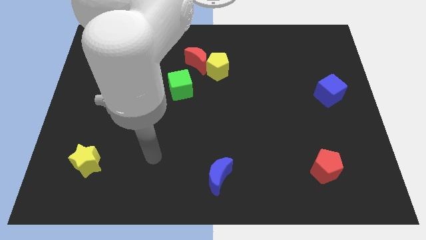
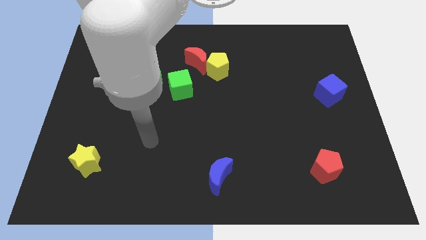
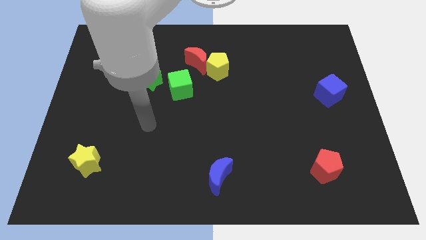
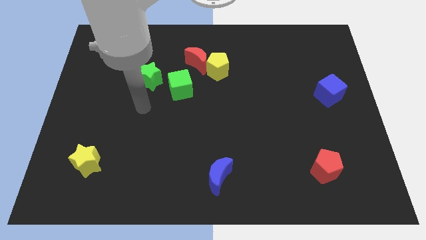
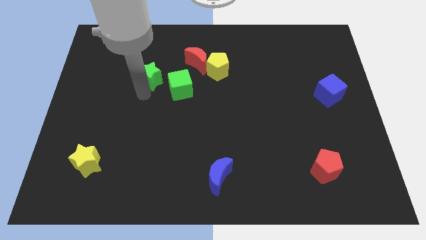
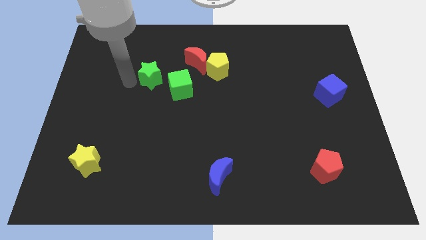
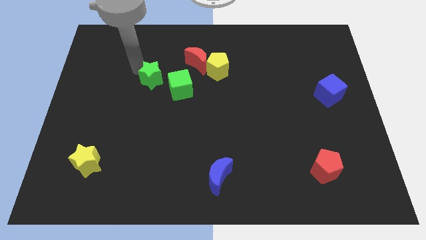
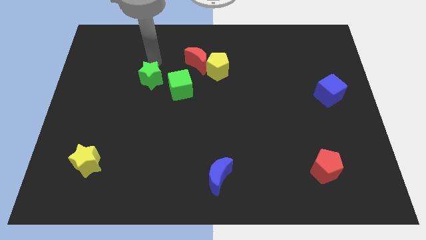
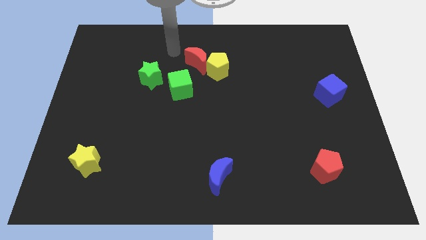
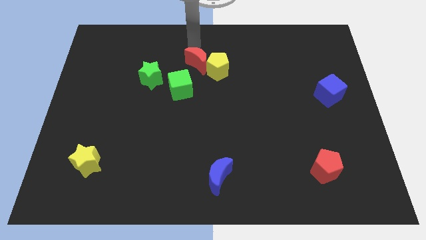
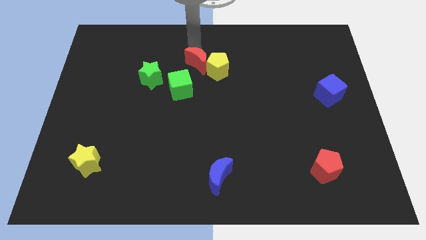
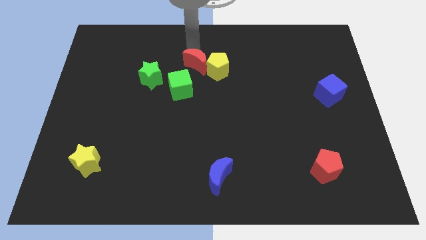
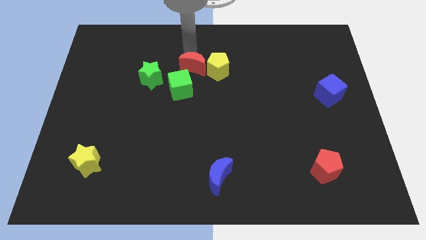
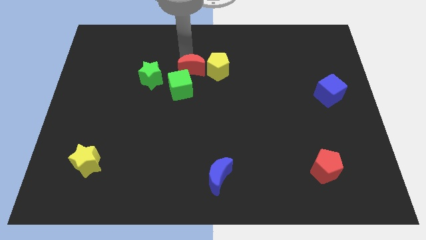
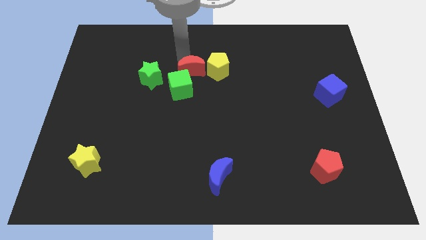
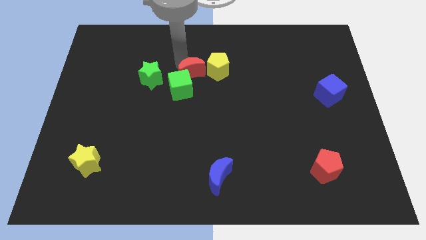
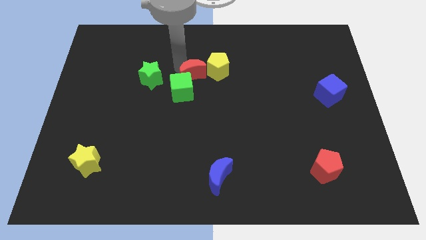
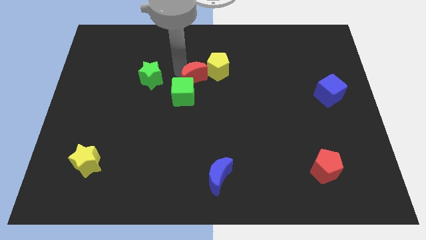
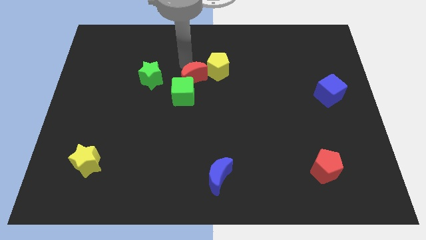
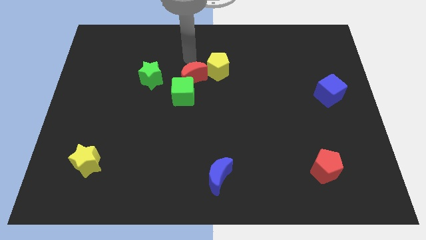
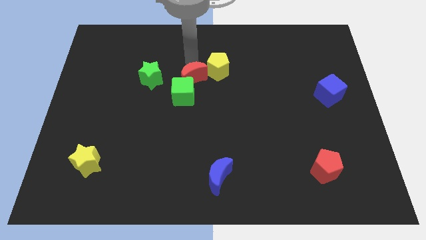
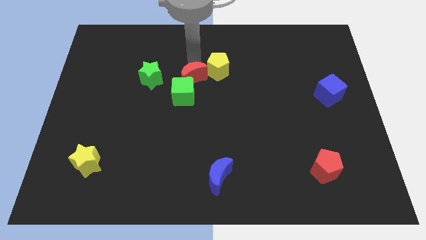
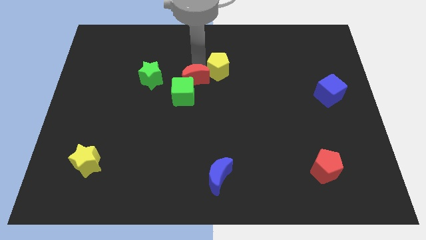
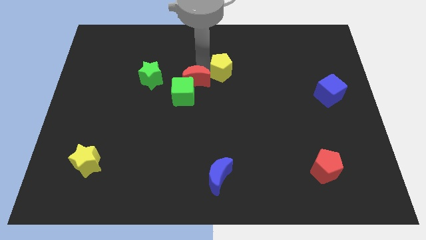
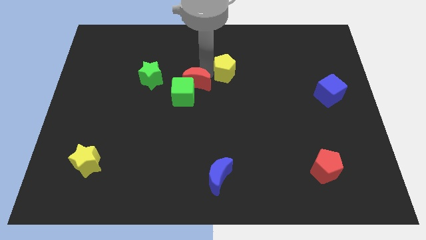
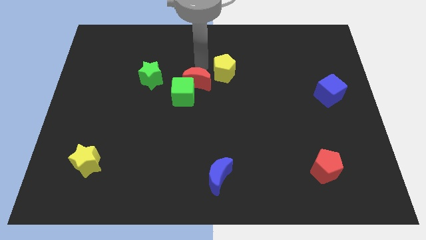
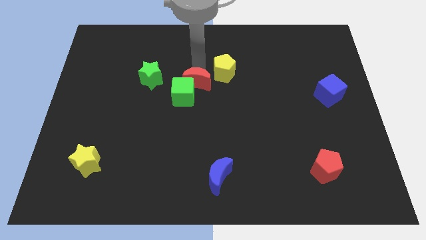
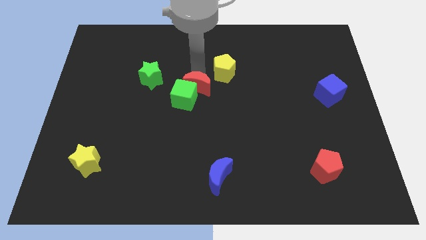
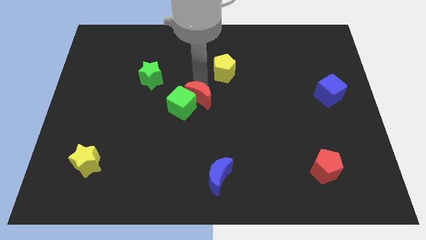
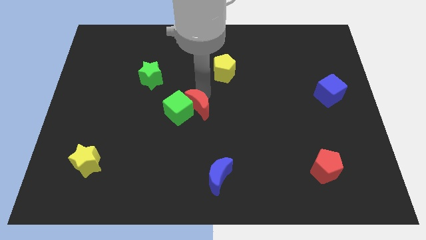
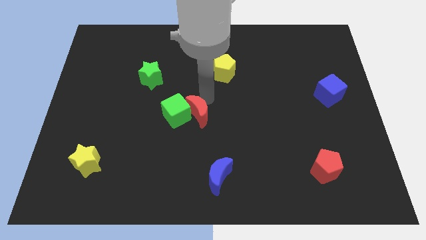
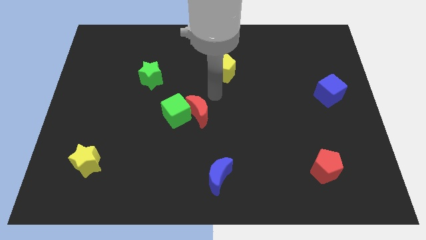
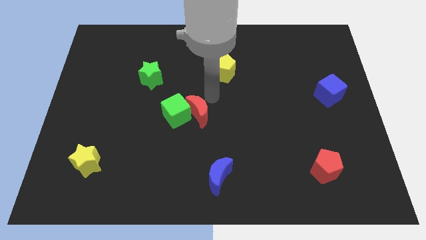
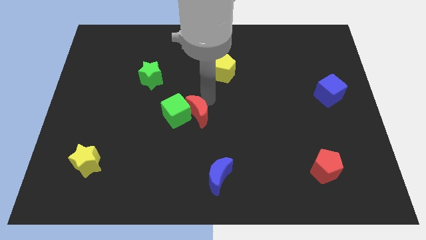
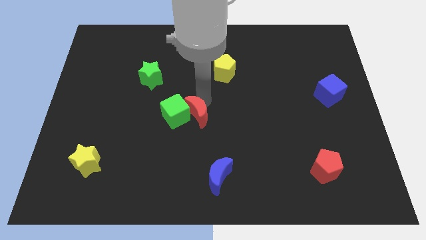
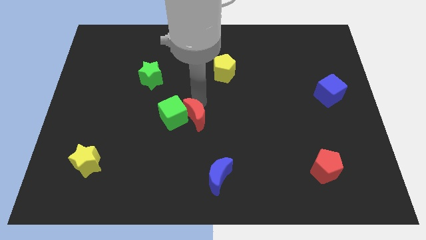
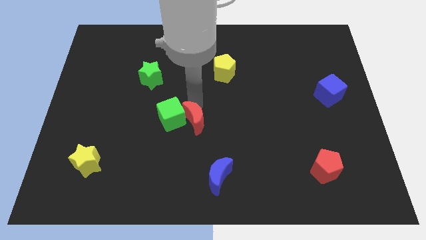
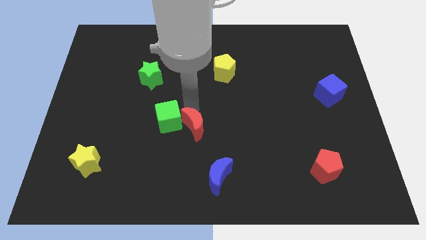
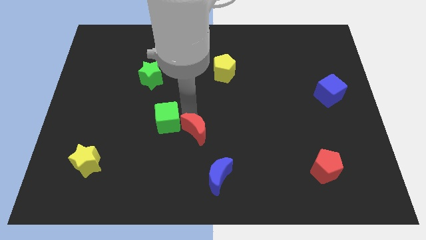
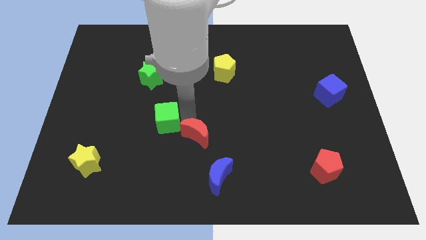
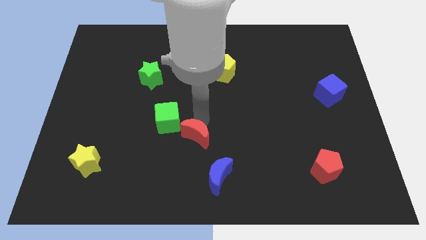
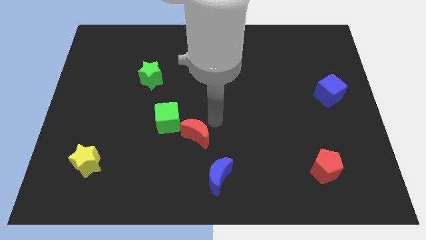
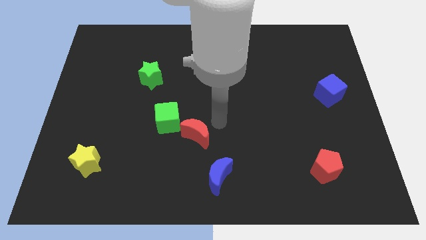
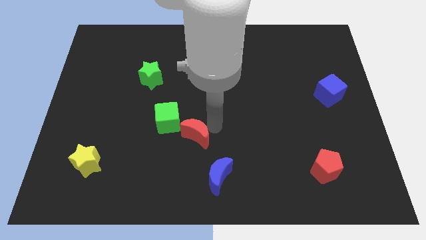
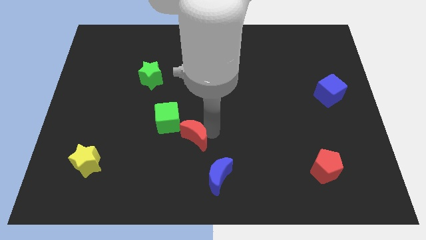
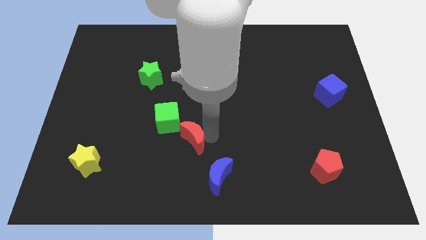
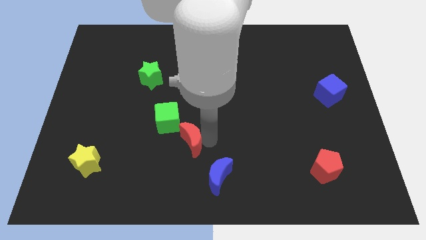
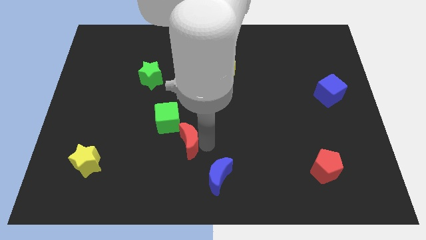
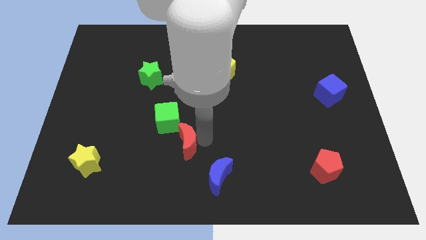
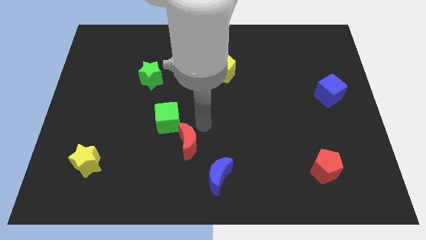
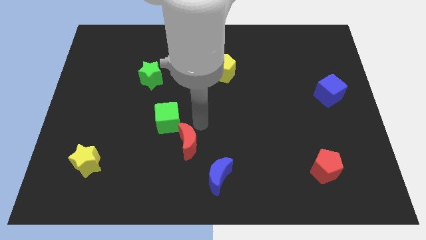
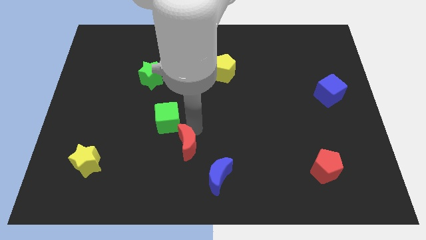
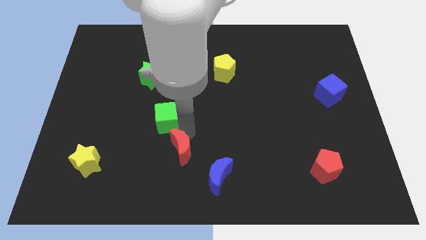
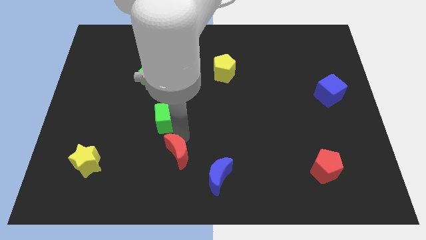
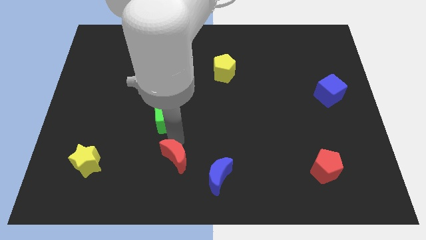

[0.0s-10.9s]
push the red moon to the left side of the blue moon

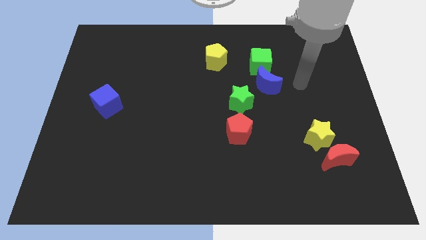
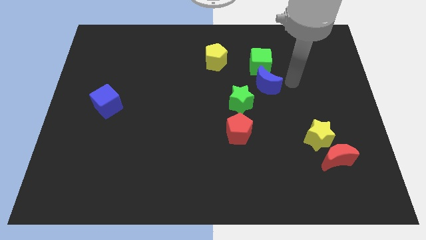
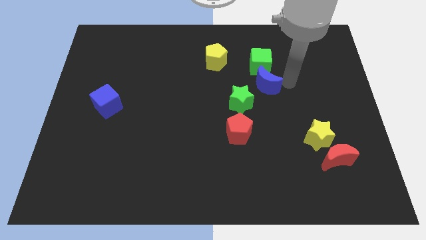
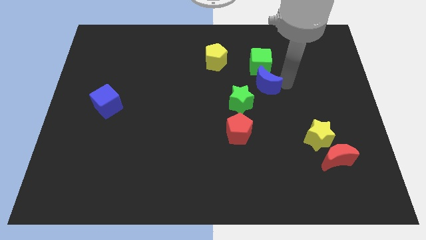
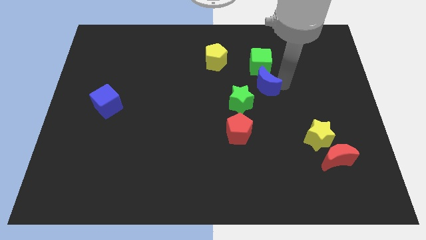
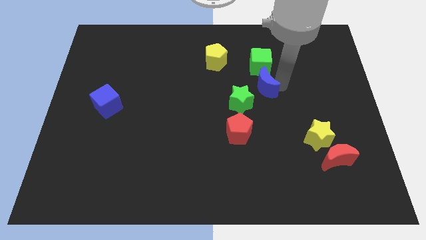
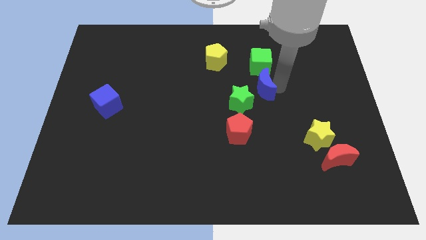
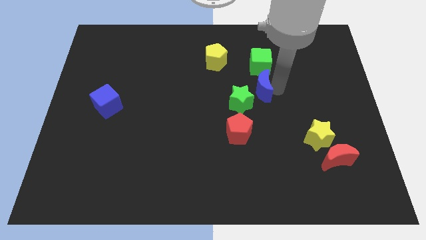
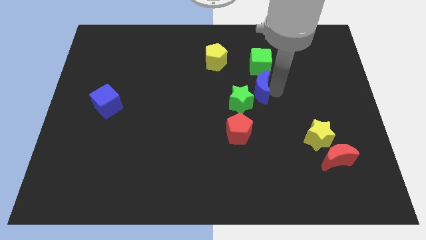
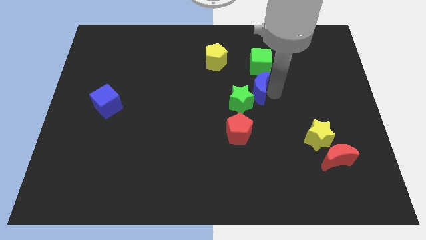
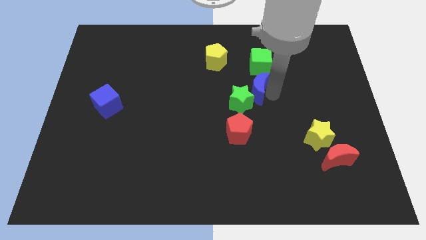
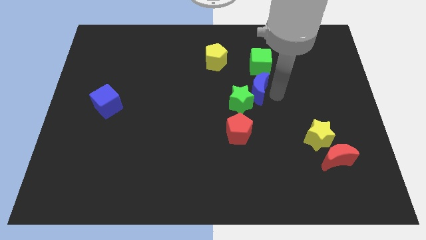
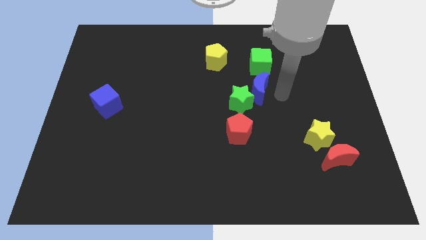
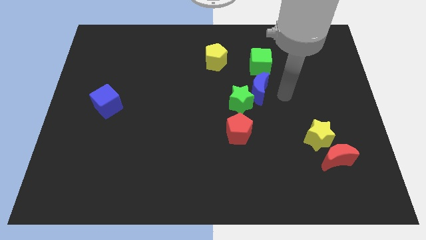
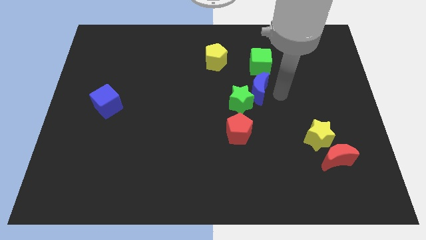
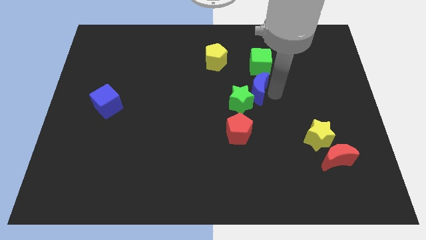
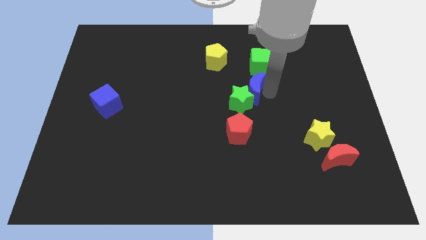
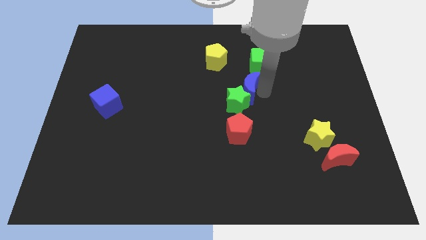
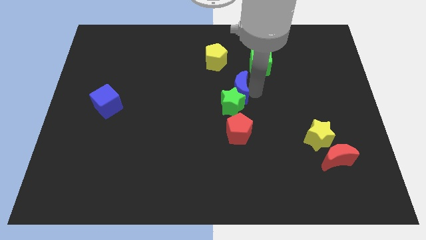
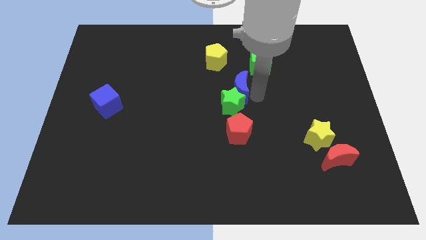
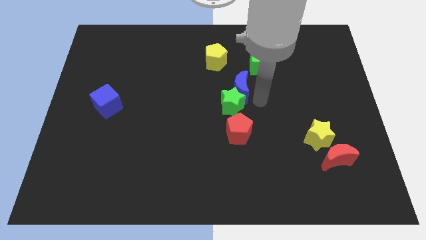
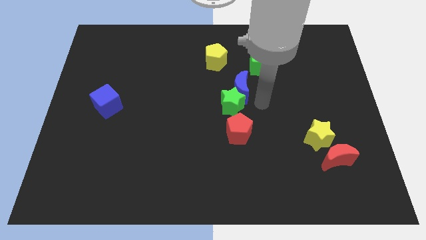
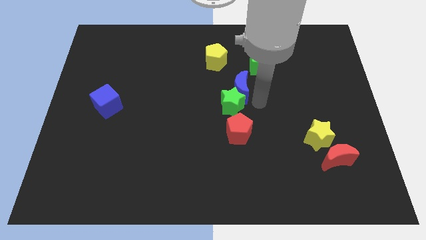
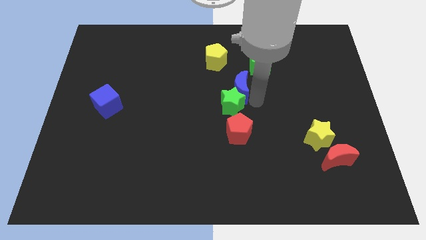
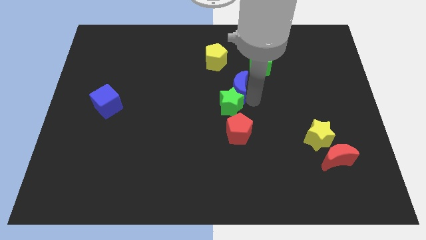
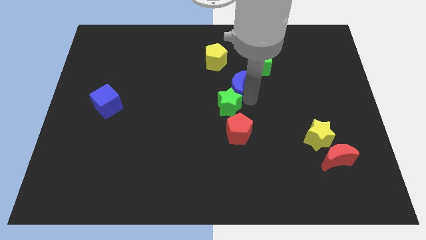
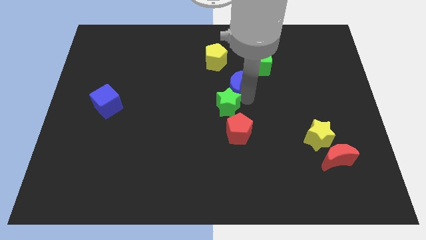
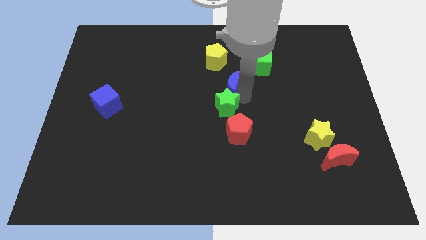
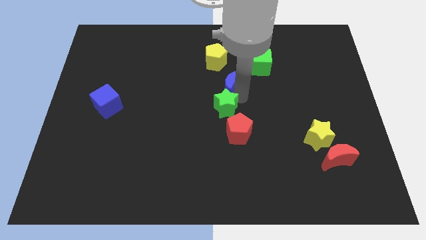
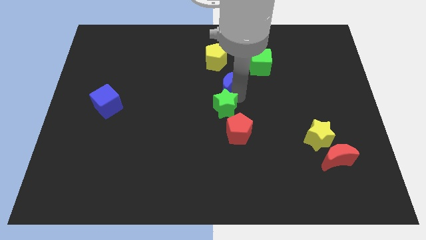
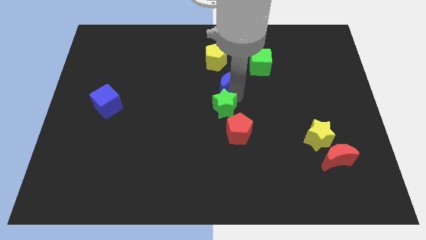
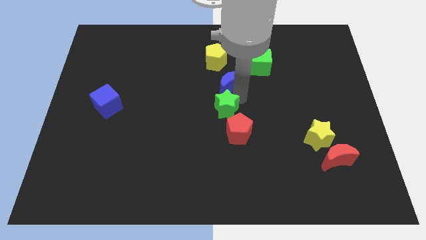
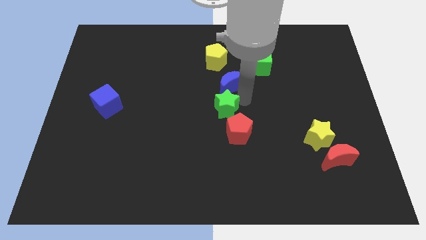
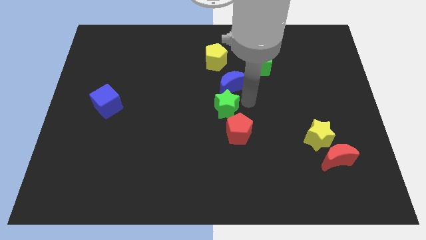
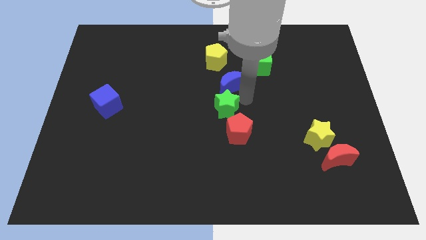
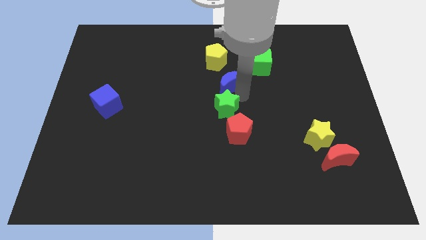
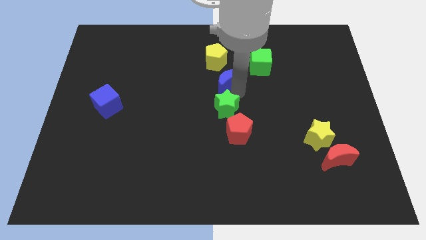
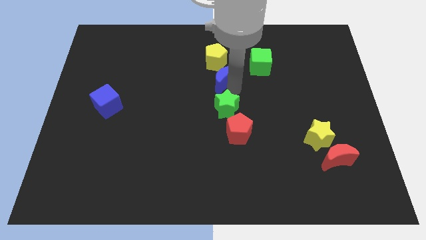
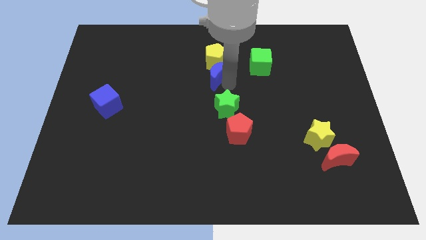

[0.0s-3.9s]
push the blue moon left of the green cube
